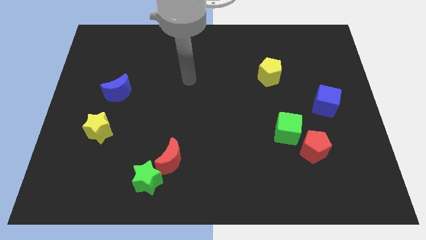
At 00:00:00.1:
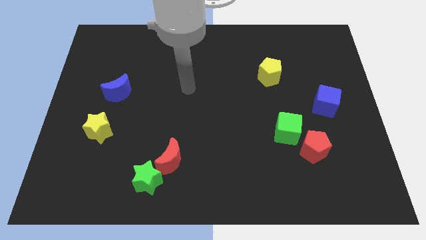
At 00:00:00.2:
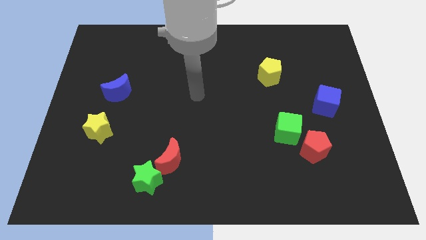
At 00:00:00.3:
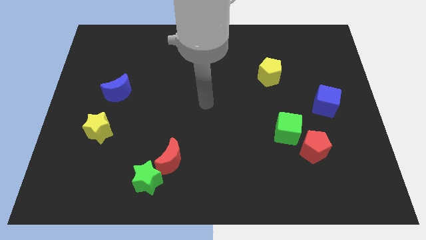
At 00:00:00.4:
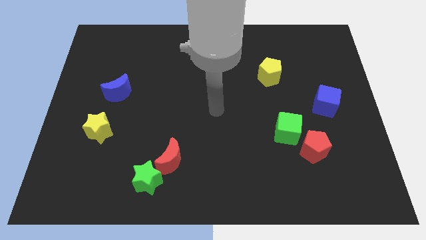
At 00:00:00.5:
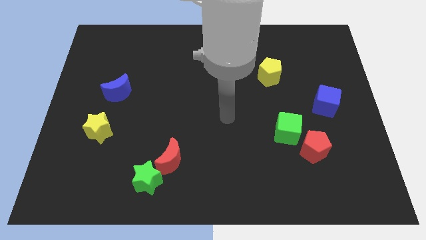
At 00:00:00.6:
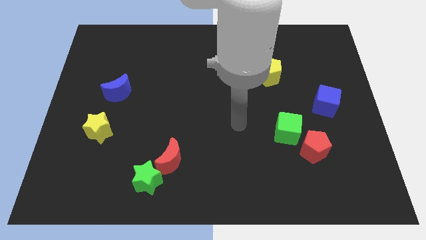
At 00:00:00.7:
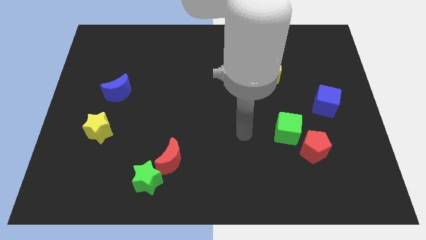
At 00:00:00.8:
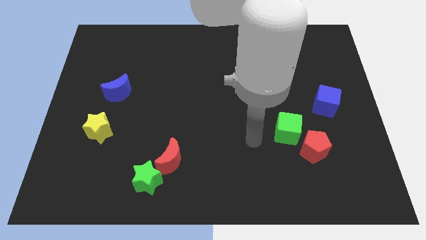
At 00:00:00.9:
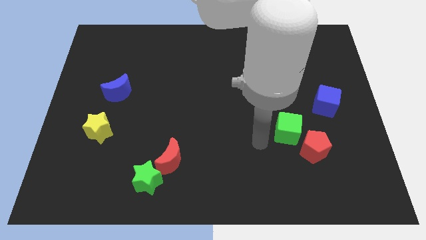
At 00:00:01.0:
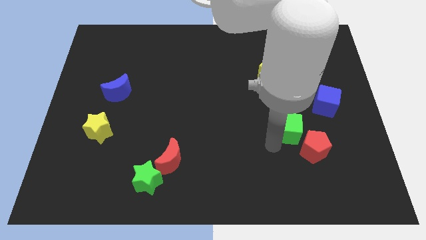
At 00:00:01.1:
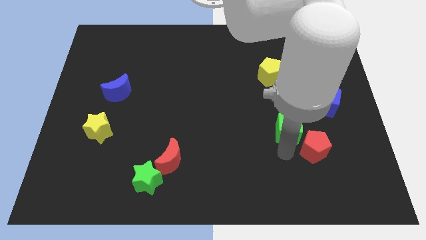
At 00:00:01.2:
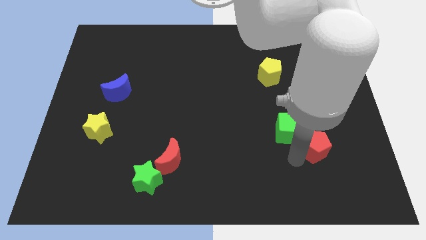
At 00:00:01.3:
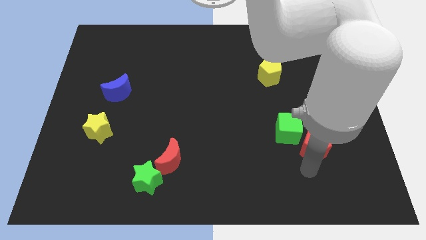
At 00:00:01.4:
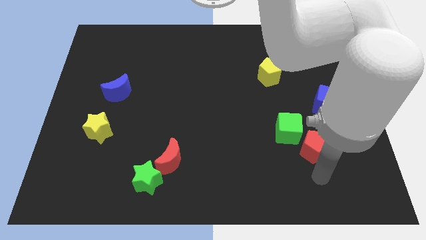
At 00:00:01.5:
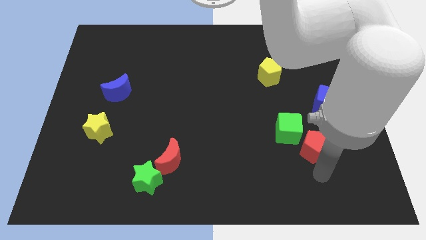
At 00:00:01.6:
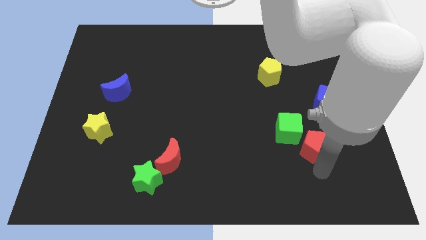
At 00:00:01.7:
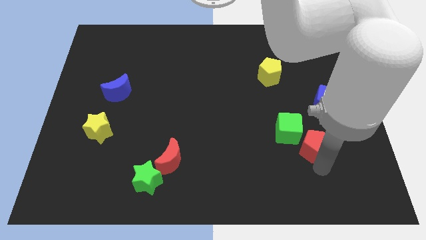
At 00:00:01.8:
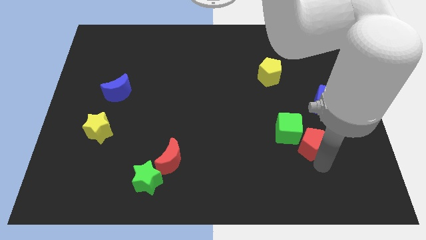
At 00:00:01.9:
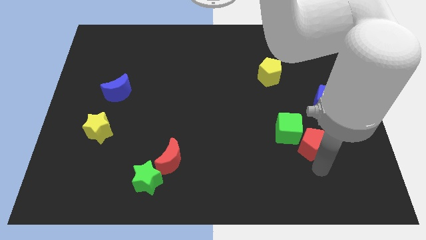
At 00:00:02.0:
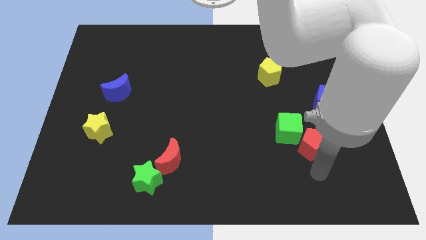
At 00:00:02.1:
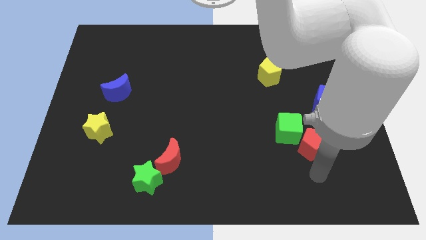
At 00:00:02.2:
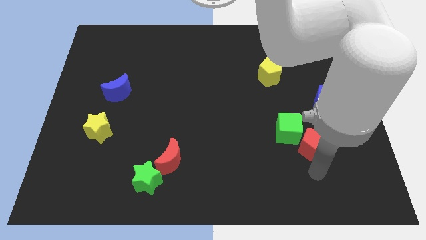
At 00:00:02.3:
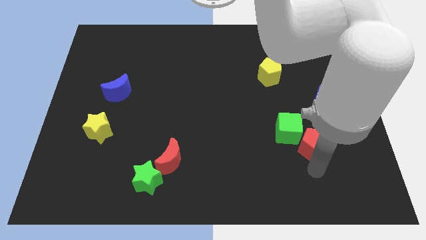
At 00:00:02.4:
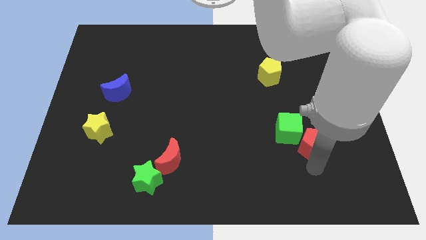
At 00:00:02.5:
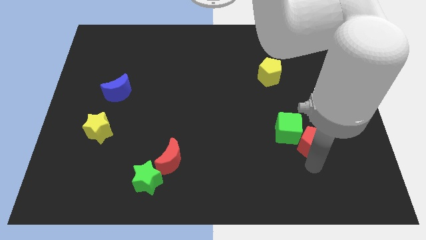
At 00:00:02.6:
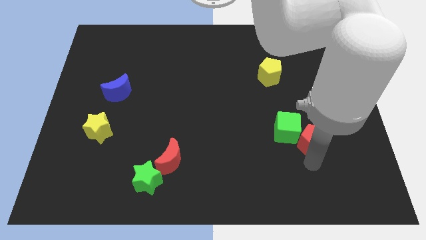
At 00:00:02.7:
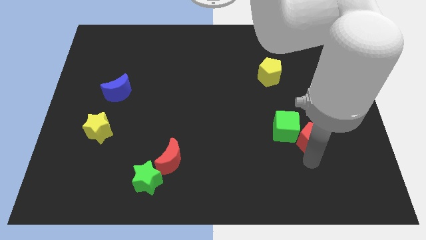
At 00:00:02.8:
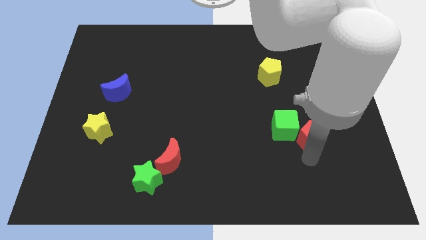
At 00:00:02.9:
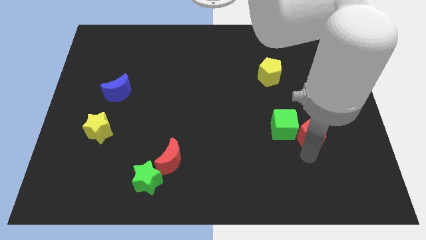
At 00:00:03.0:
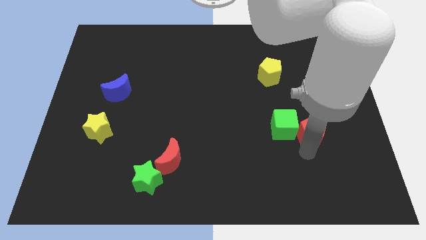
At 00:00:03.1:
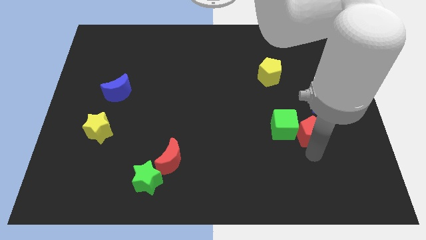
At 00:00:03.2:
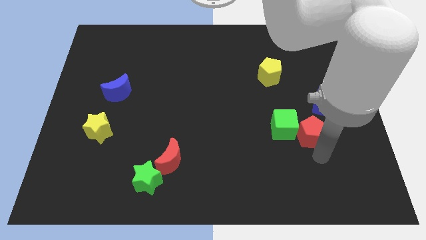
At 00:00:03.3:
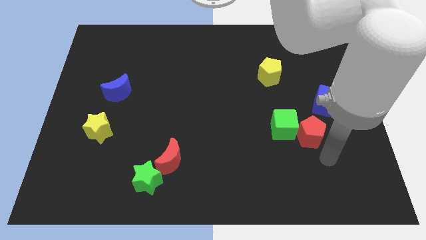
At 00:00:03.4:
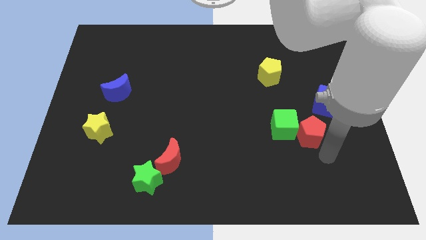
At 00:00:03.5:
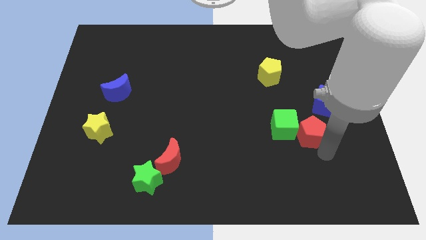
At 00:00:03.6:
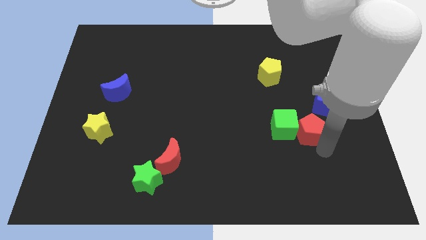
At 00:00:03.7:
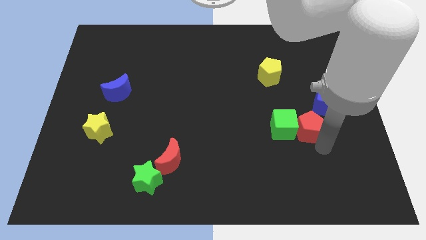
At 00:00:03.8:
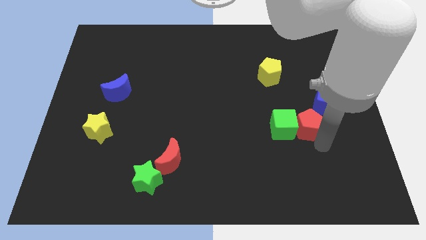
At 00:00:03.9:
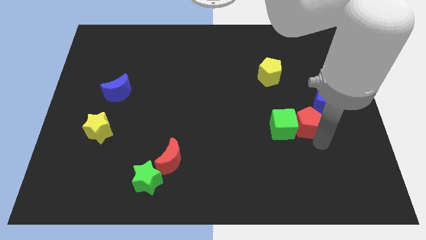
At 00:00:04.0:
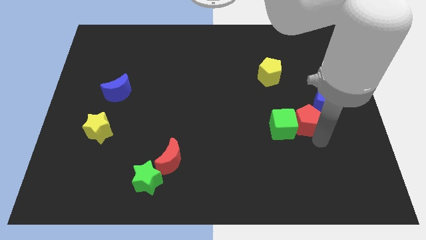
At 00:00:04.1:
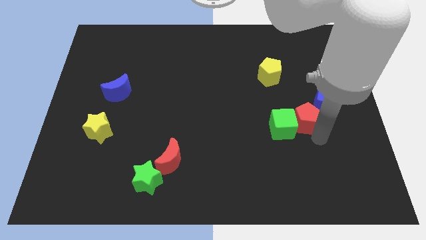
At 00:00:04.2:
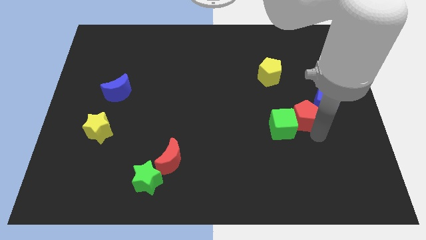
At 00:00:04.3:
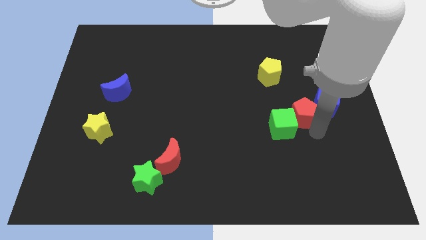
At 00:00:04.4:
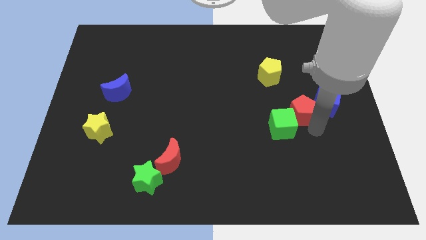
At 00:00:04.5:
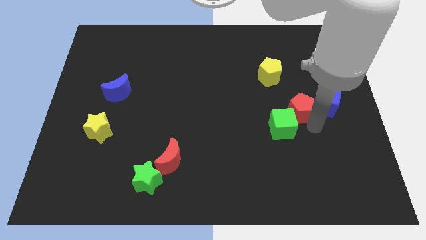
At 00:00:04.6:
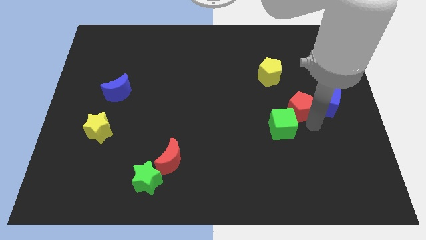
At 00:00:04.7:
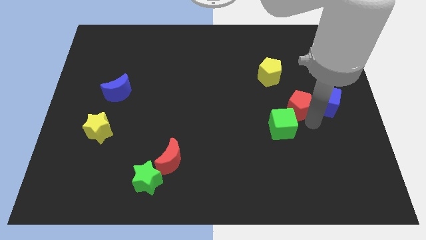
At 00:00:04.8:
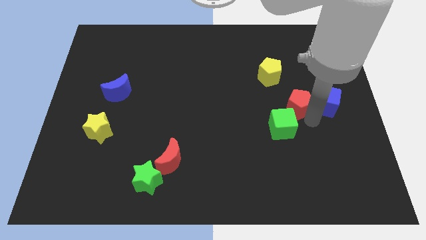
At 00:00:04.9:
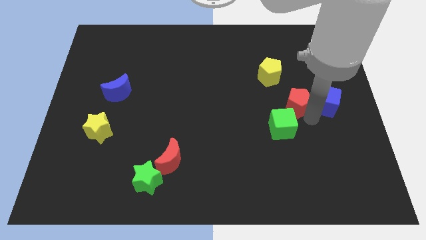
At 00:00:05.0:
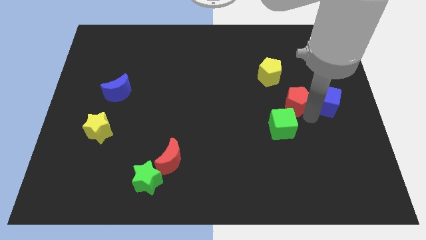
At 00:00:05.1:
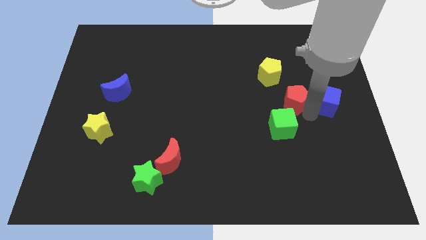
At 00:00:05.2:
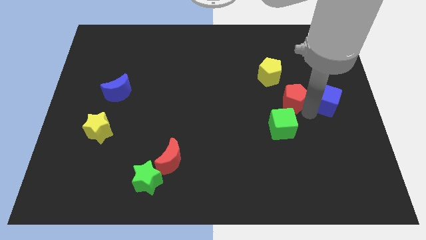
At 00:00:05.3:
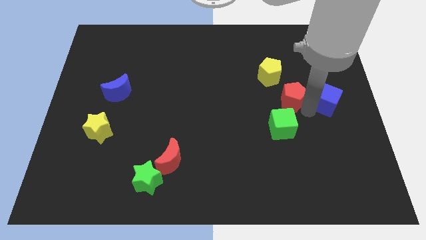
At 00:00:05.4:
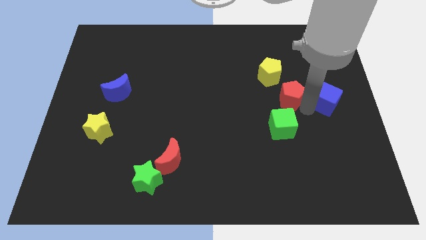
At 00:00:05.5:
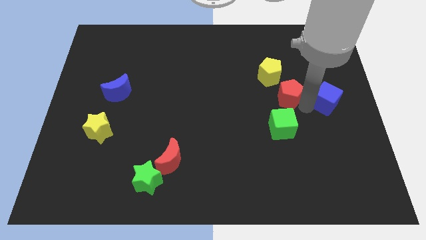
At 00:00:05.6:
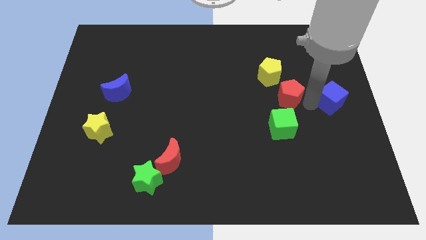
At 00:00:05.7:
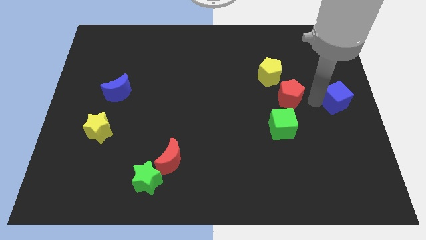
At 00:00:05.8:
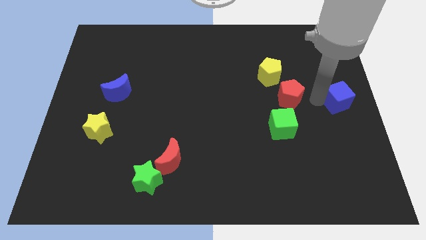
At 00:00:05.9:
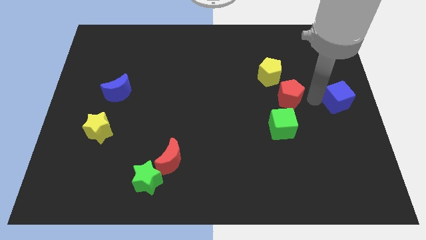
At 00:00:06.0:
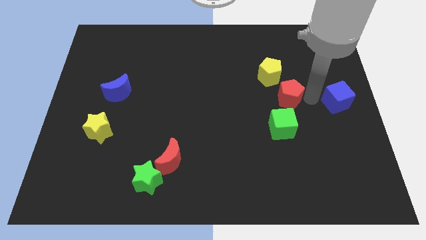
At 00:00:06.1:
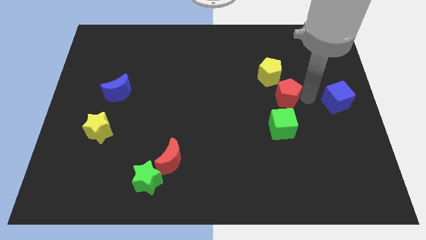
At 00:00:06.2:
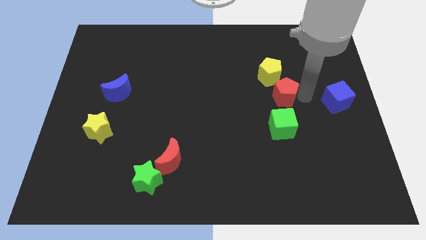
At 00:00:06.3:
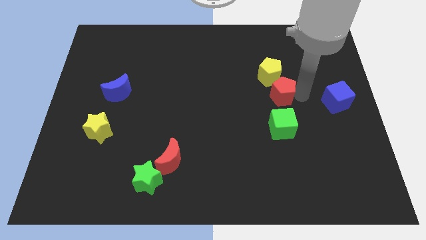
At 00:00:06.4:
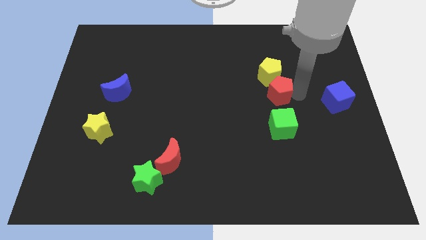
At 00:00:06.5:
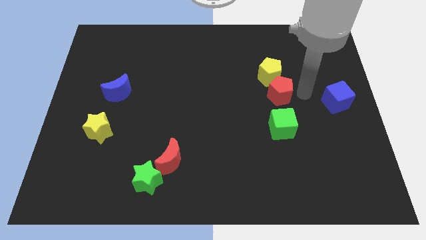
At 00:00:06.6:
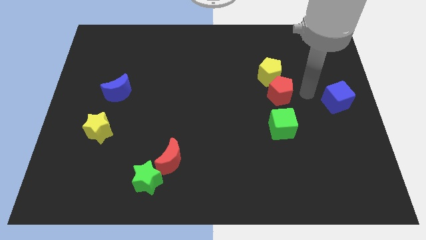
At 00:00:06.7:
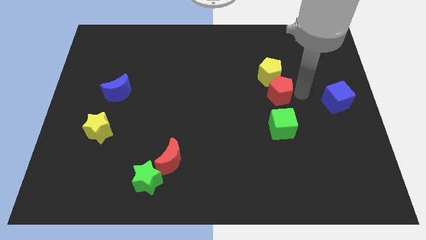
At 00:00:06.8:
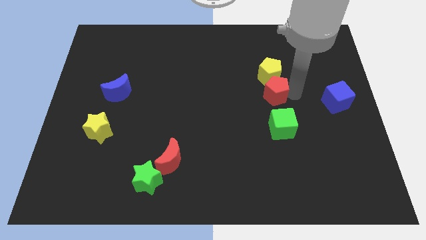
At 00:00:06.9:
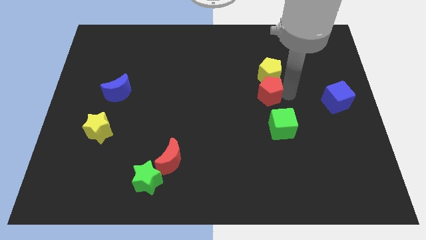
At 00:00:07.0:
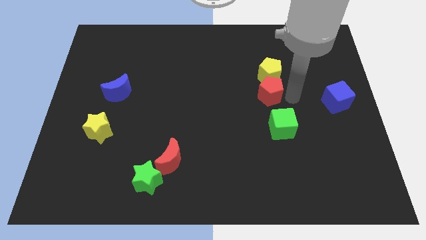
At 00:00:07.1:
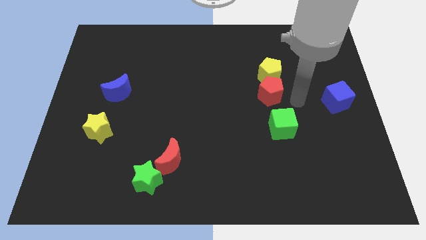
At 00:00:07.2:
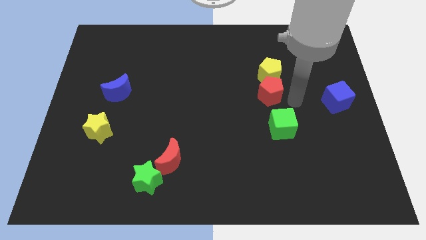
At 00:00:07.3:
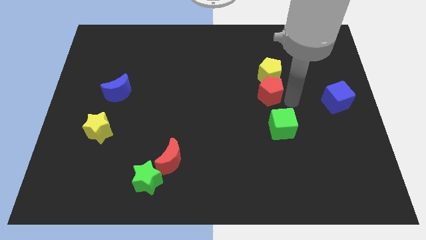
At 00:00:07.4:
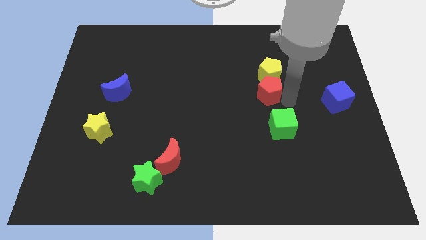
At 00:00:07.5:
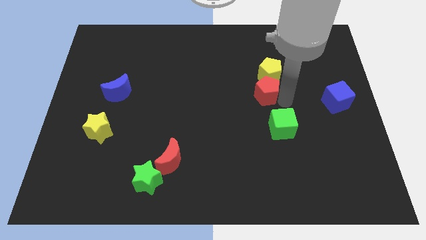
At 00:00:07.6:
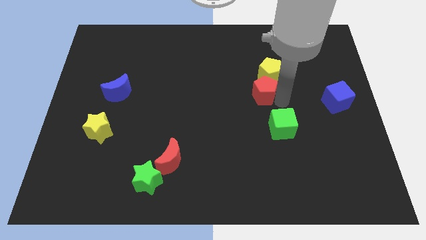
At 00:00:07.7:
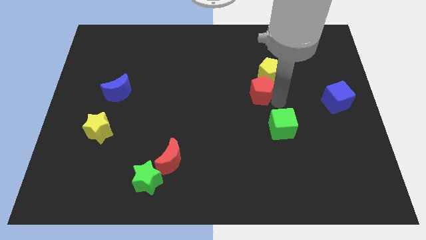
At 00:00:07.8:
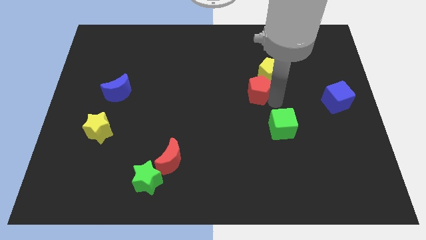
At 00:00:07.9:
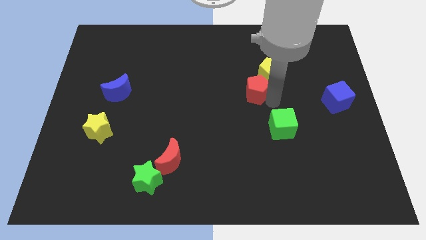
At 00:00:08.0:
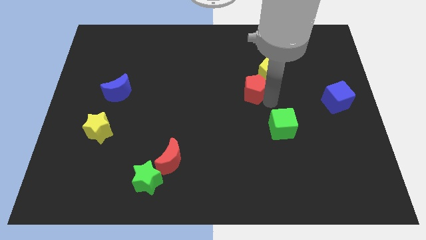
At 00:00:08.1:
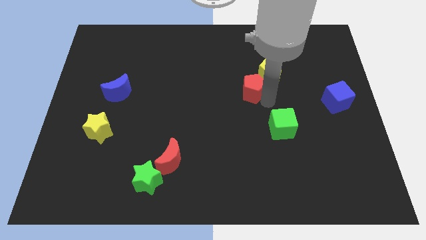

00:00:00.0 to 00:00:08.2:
push the red pentagon upwards and left diagonally
